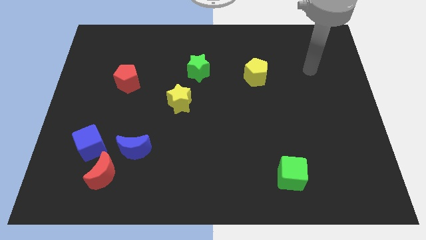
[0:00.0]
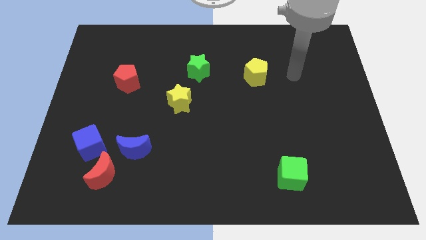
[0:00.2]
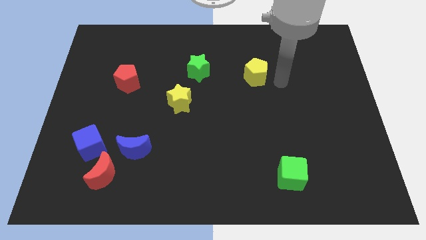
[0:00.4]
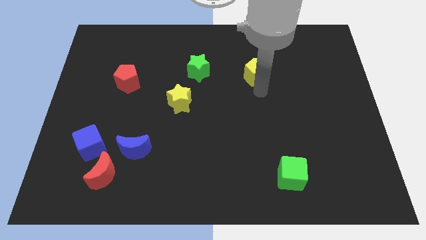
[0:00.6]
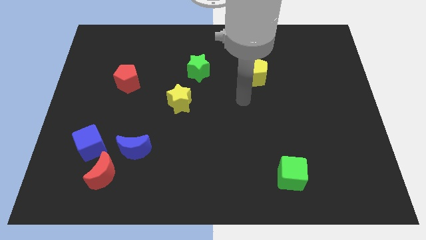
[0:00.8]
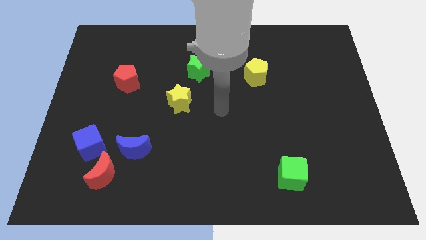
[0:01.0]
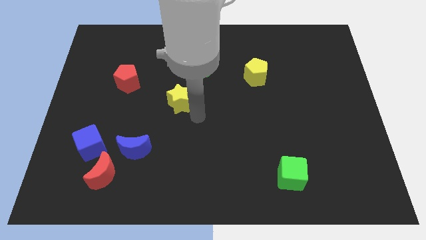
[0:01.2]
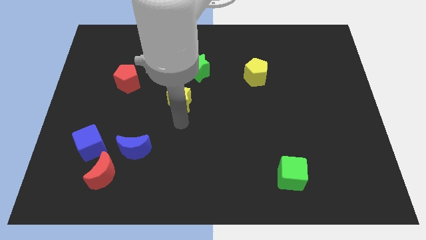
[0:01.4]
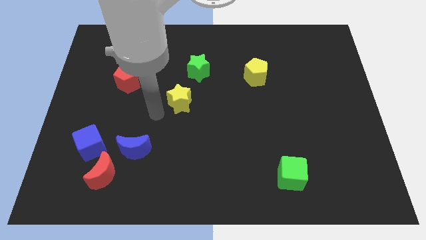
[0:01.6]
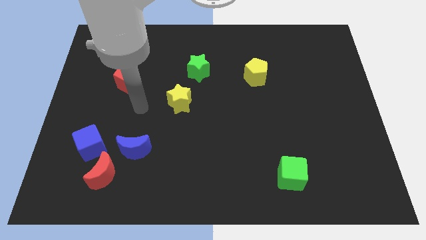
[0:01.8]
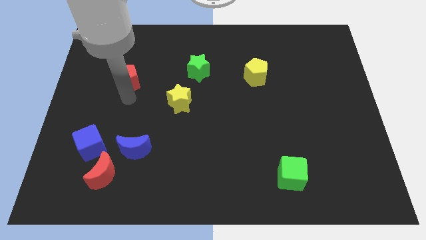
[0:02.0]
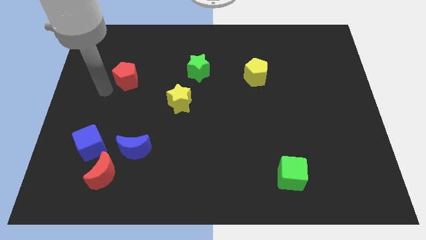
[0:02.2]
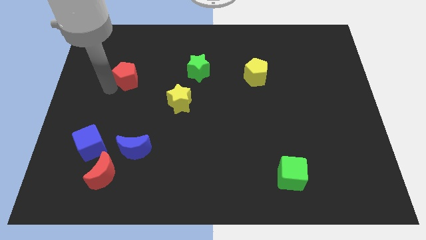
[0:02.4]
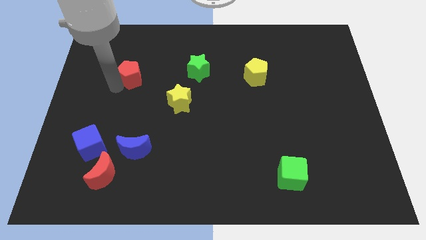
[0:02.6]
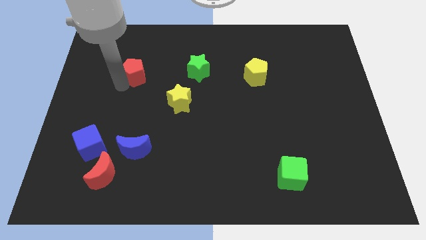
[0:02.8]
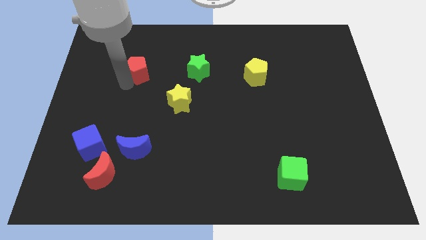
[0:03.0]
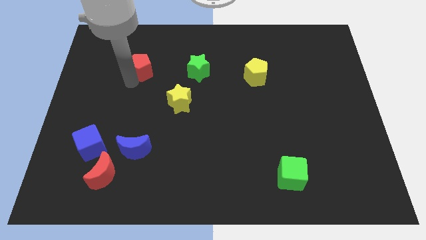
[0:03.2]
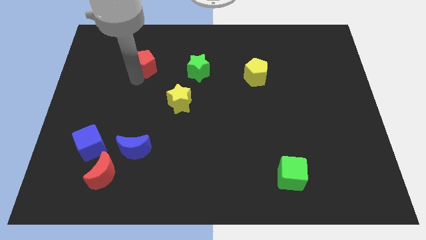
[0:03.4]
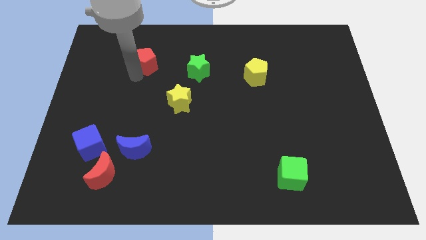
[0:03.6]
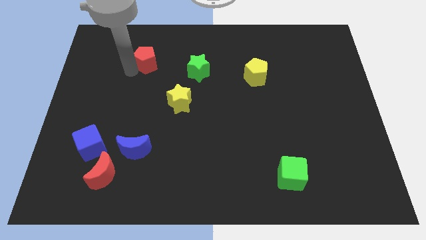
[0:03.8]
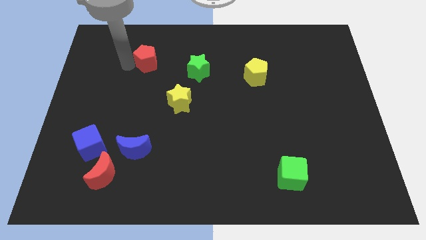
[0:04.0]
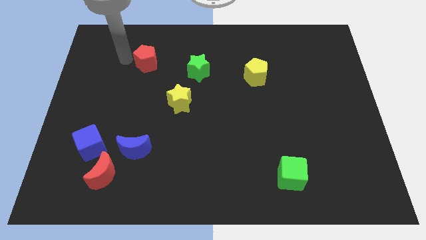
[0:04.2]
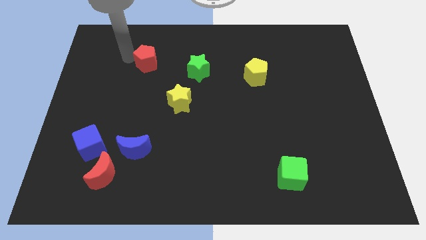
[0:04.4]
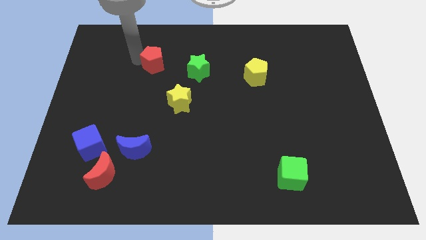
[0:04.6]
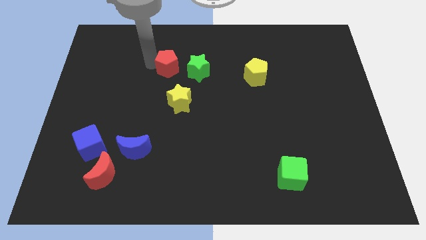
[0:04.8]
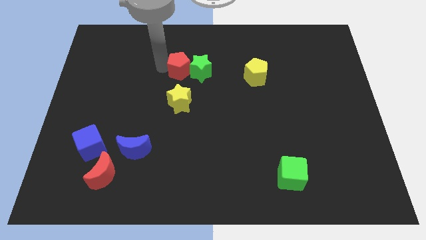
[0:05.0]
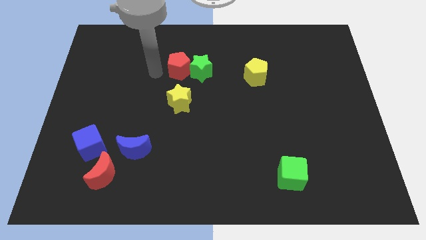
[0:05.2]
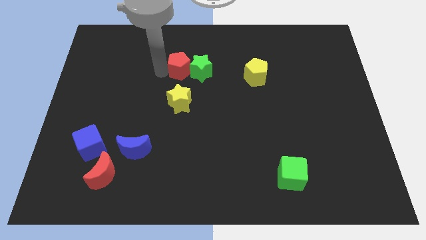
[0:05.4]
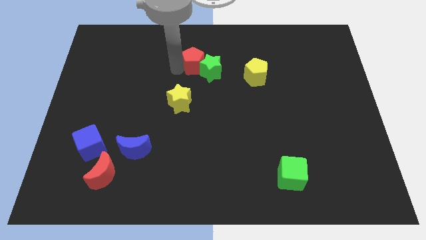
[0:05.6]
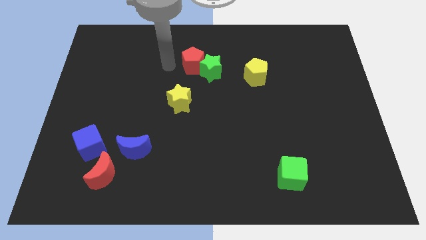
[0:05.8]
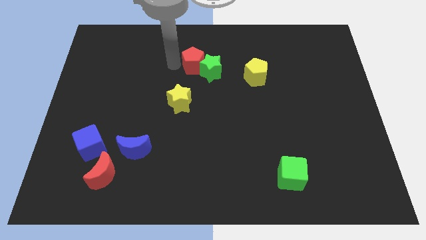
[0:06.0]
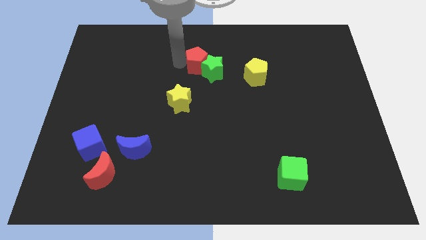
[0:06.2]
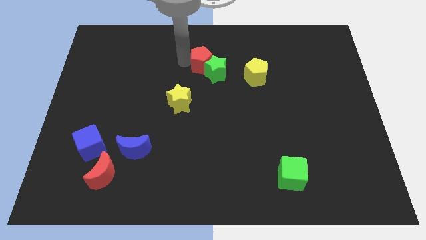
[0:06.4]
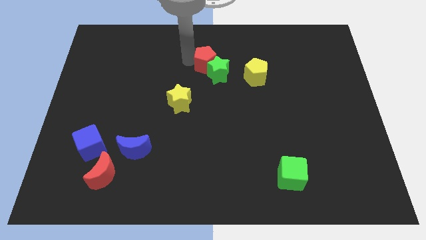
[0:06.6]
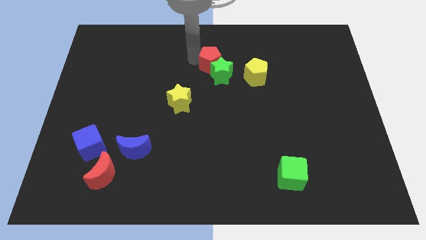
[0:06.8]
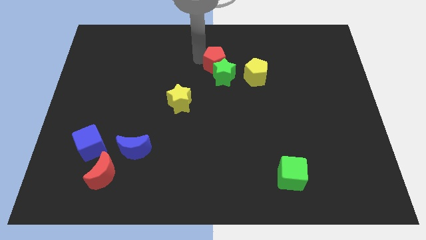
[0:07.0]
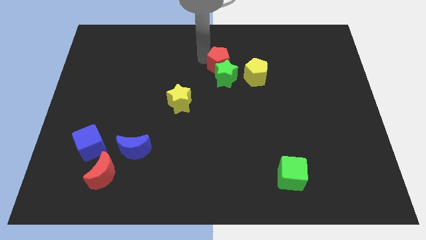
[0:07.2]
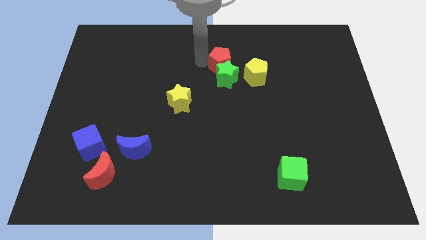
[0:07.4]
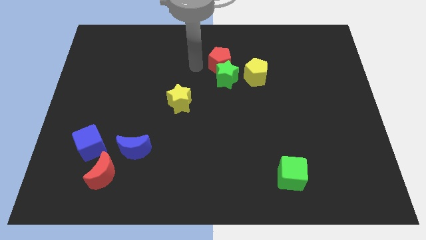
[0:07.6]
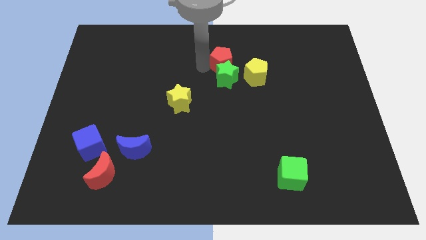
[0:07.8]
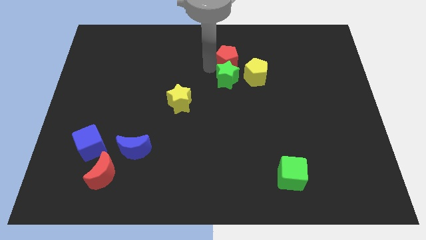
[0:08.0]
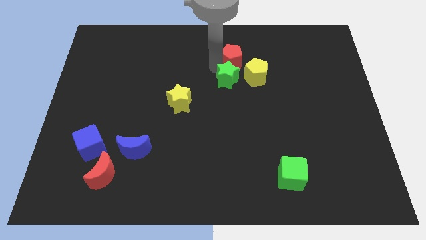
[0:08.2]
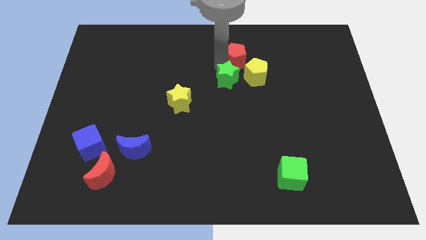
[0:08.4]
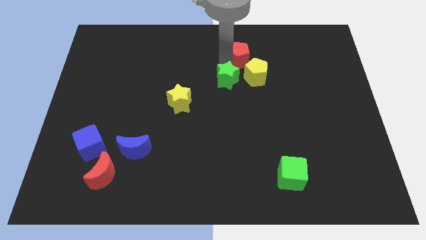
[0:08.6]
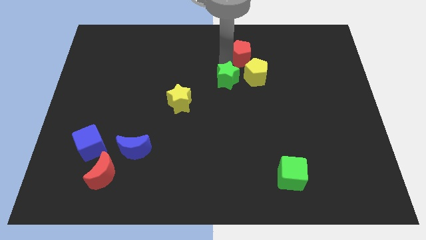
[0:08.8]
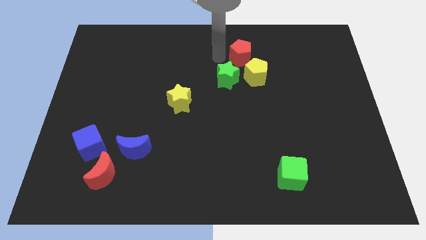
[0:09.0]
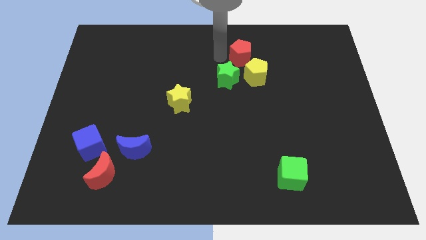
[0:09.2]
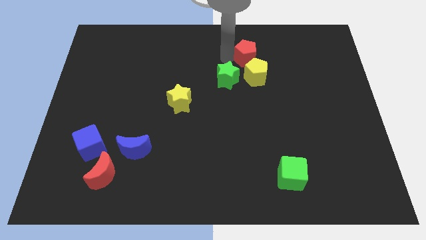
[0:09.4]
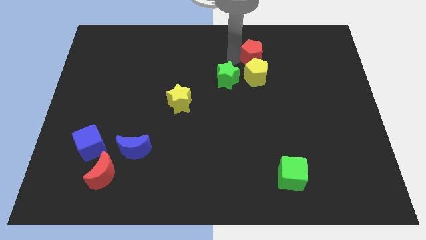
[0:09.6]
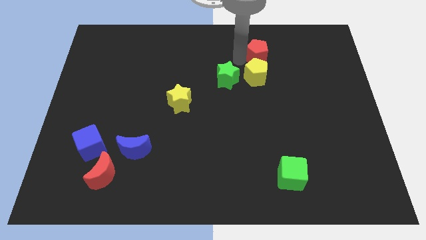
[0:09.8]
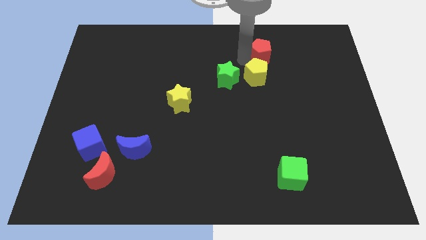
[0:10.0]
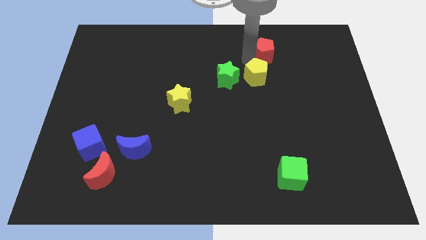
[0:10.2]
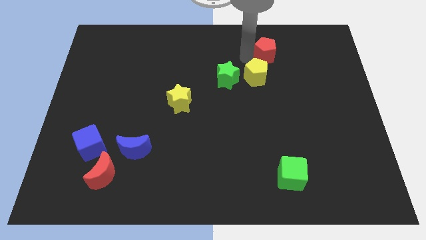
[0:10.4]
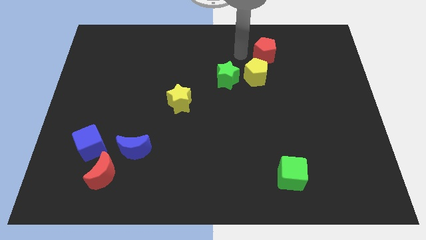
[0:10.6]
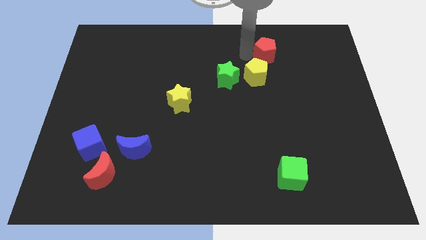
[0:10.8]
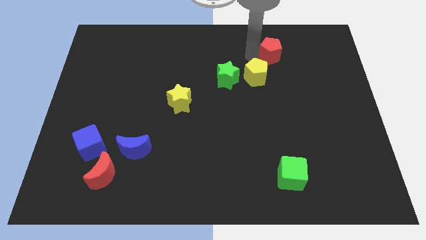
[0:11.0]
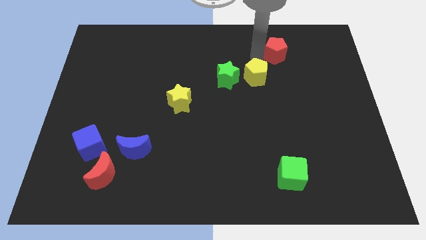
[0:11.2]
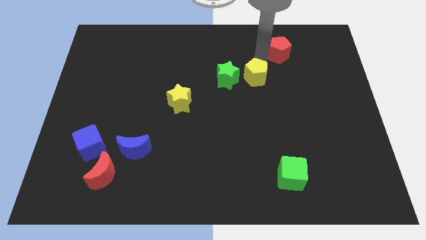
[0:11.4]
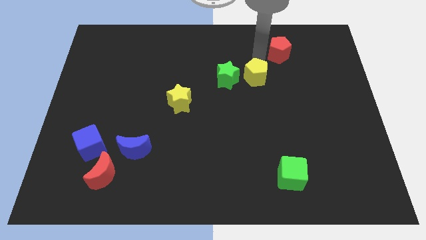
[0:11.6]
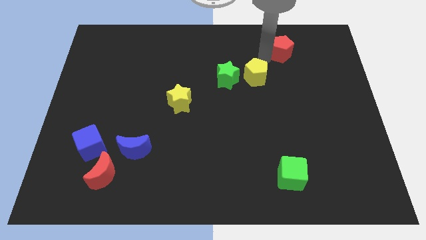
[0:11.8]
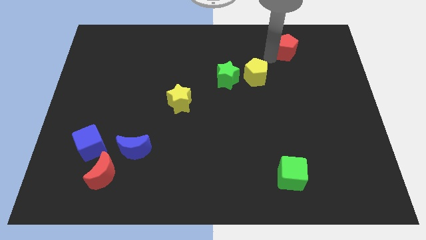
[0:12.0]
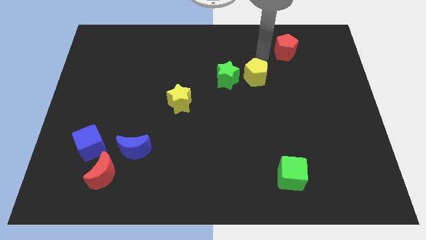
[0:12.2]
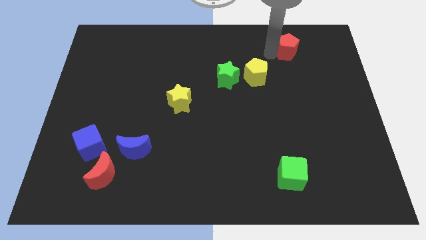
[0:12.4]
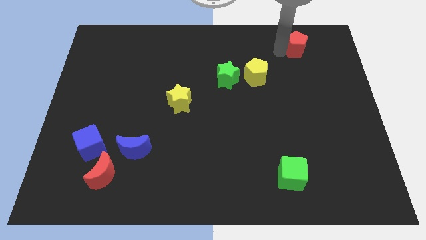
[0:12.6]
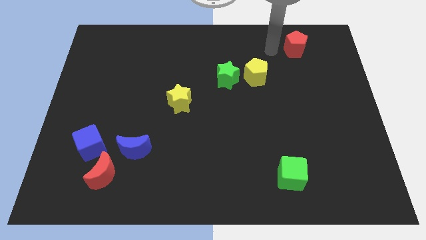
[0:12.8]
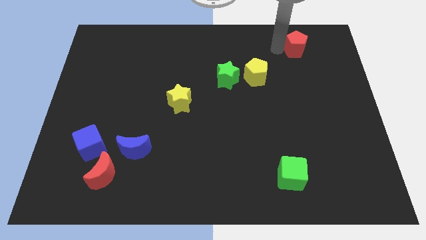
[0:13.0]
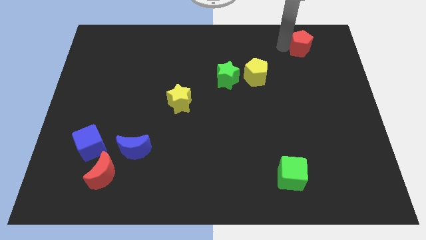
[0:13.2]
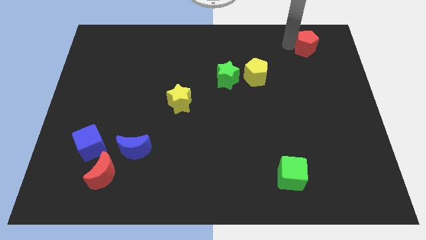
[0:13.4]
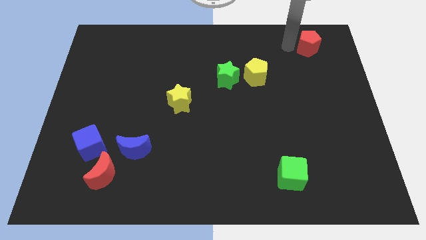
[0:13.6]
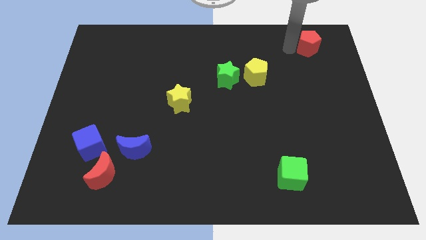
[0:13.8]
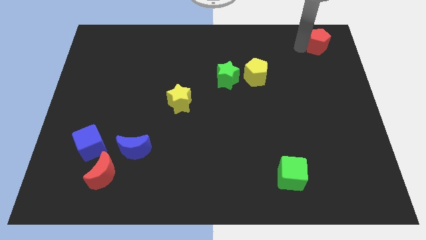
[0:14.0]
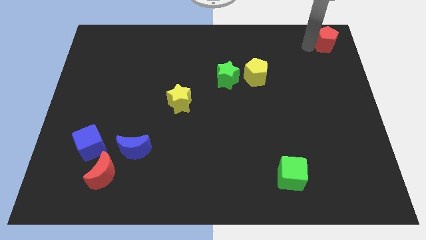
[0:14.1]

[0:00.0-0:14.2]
put the red pentagon to the upper right corner
